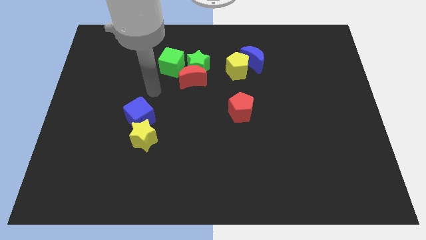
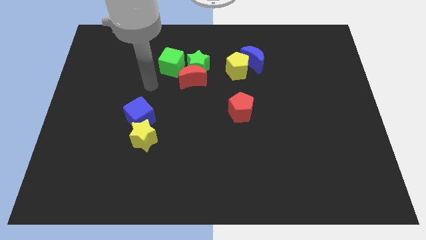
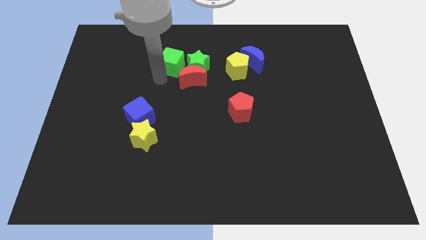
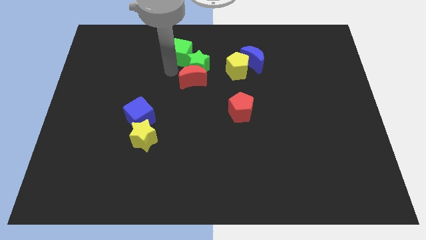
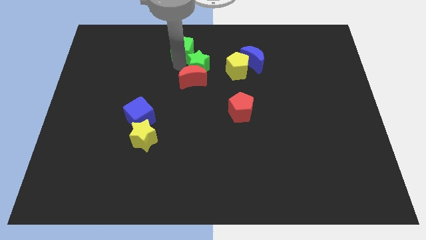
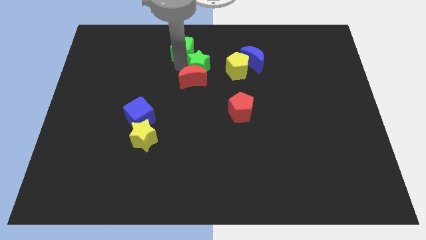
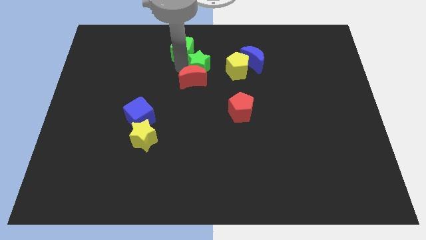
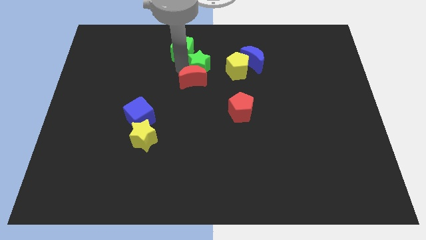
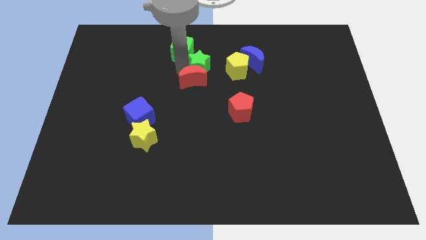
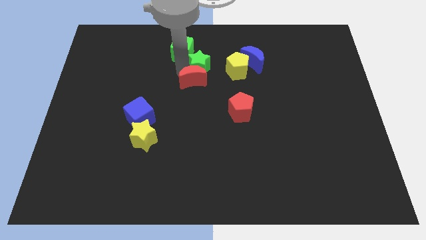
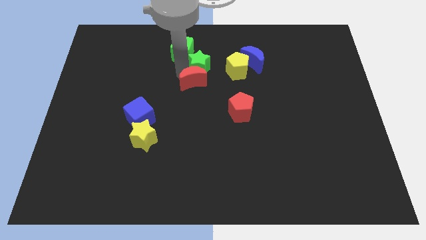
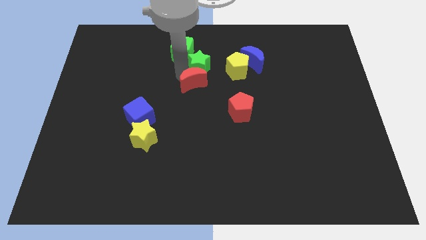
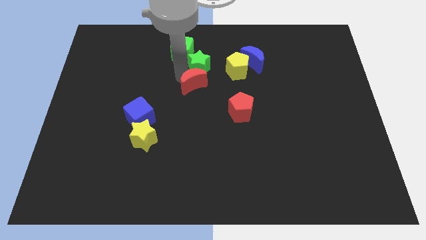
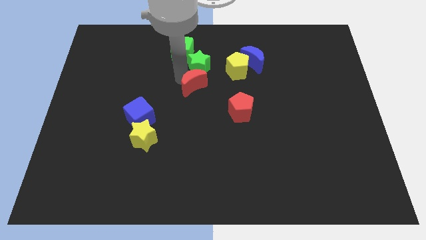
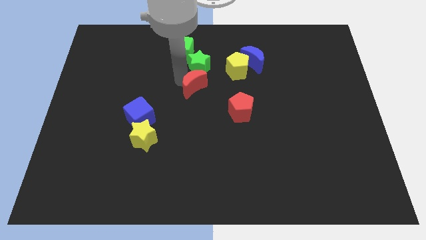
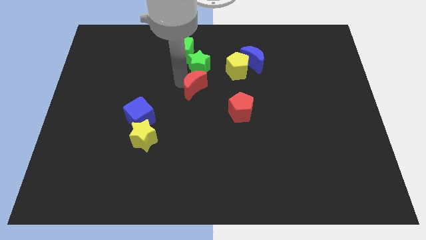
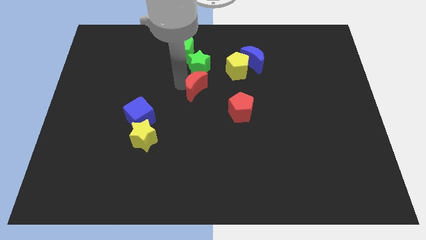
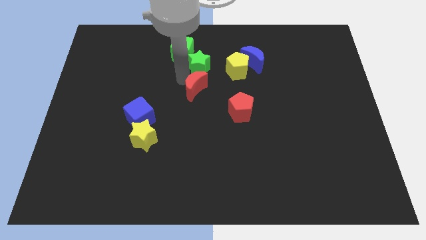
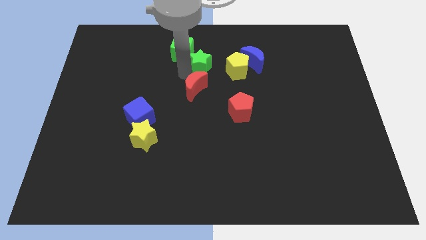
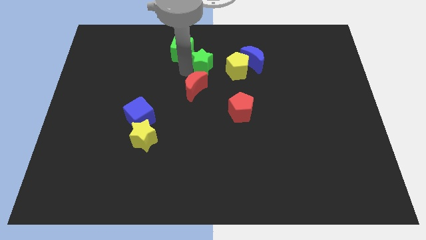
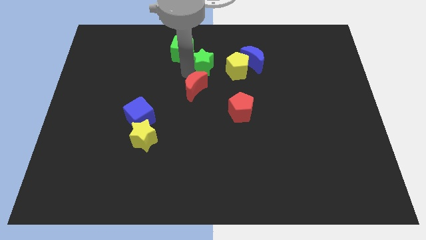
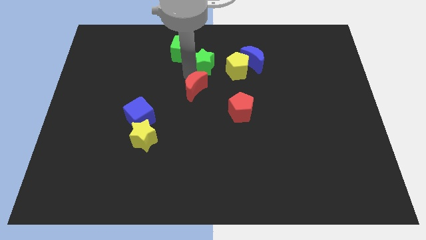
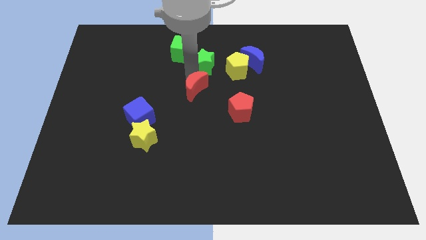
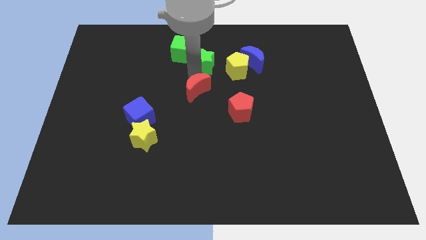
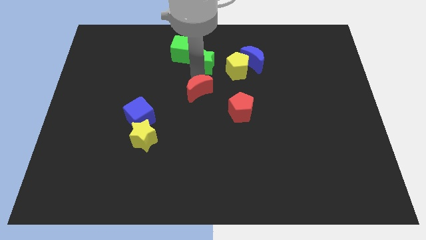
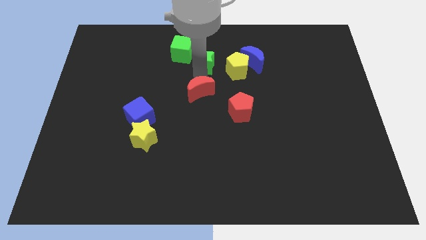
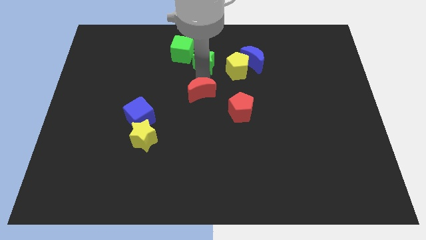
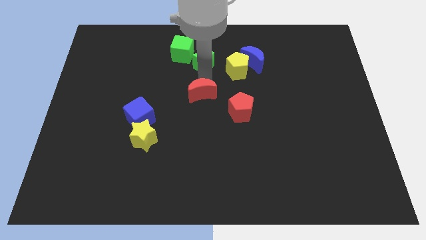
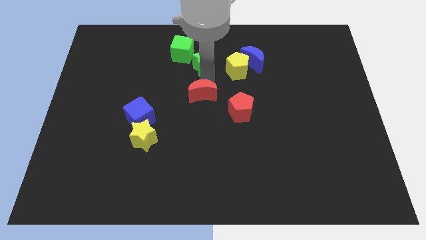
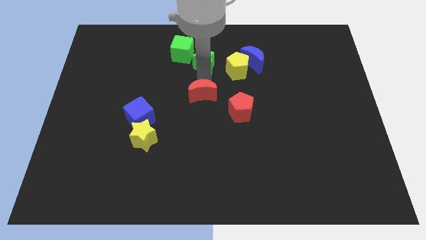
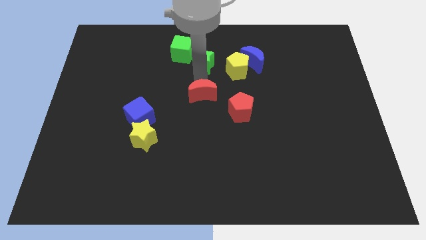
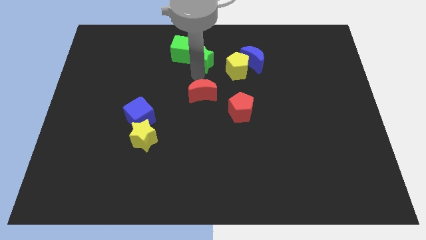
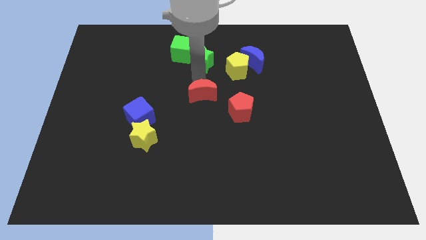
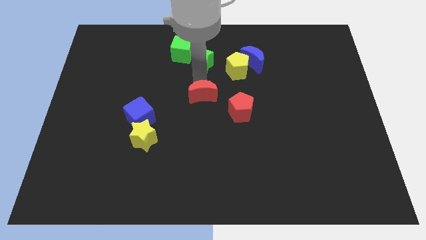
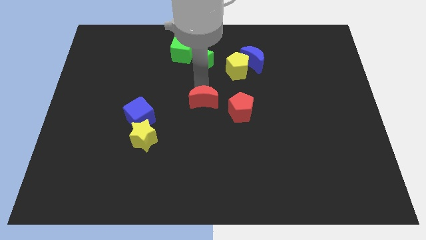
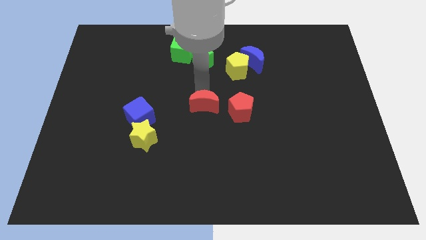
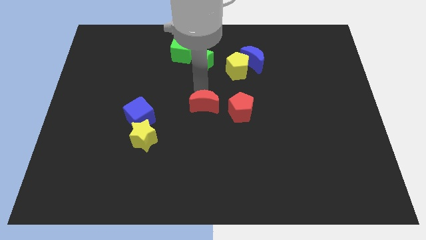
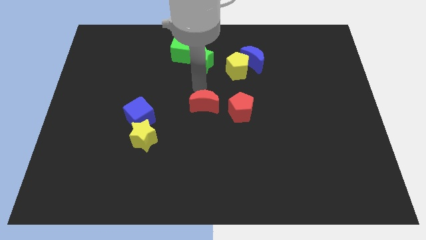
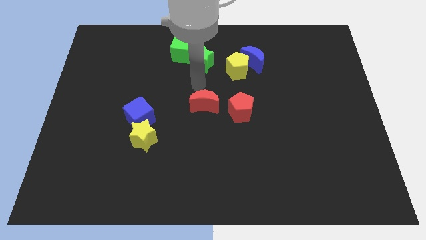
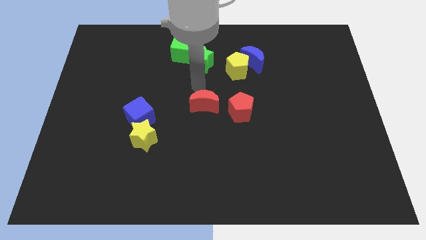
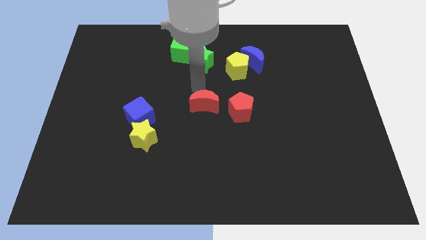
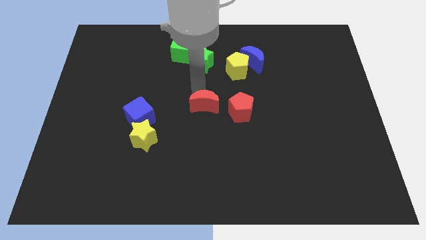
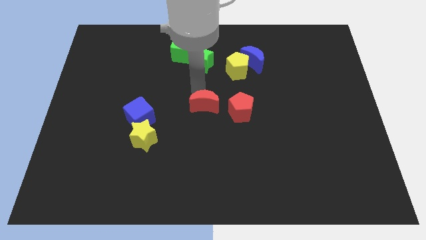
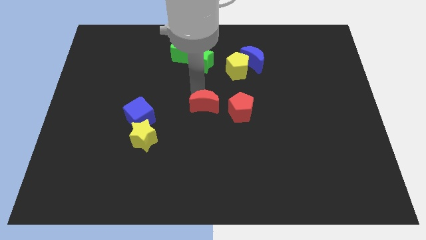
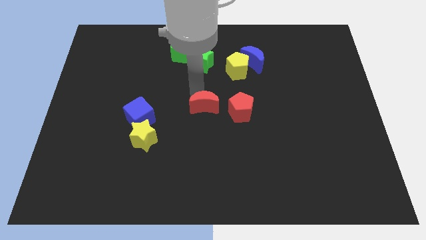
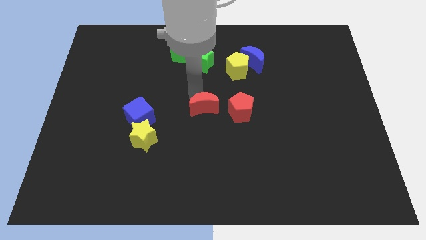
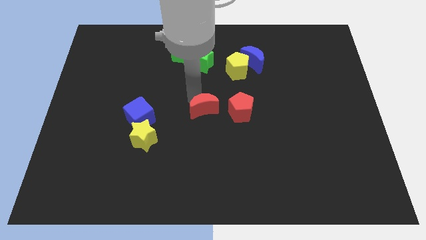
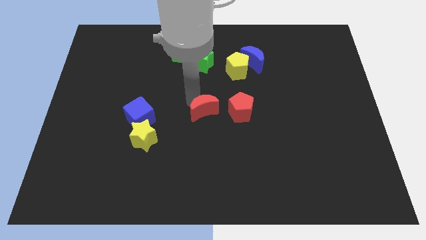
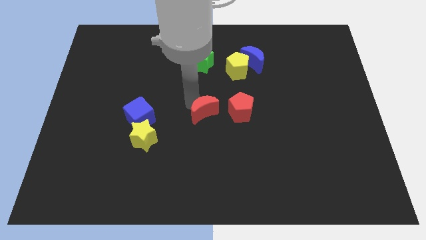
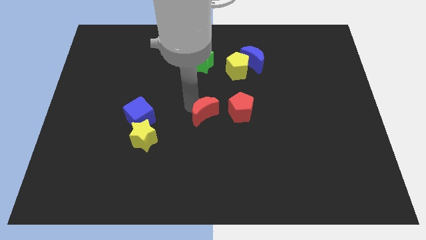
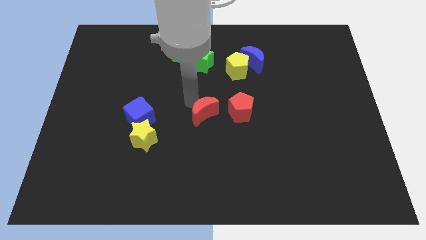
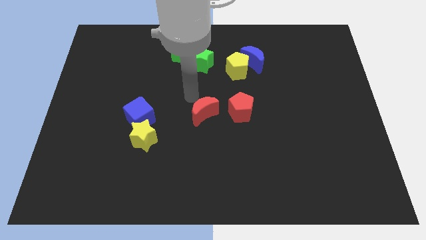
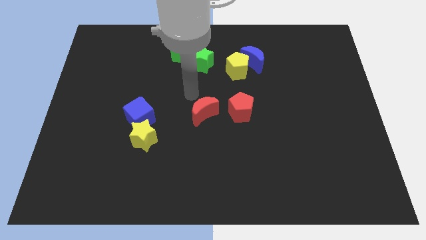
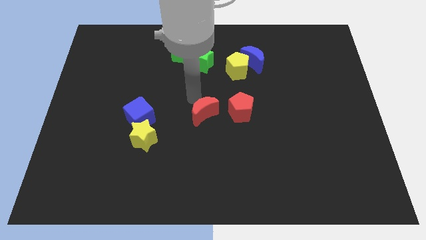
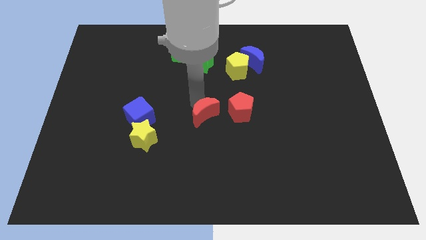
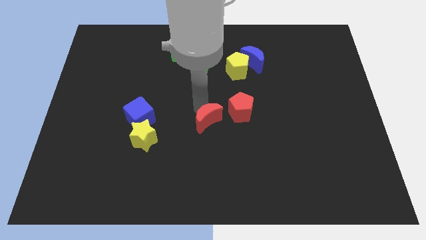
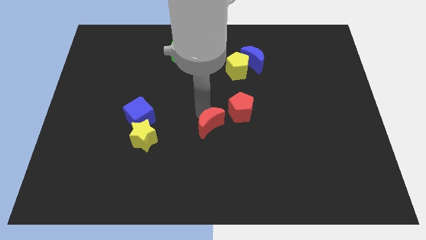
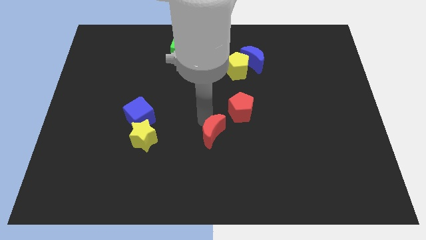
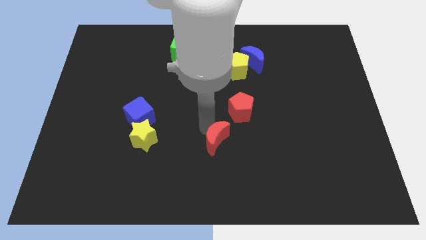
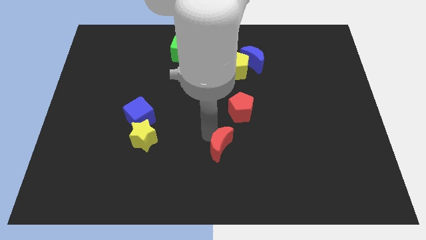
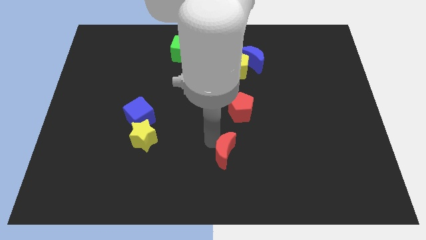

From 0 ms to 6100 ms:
move the red moon to the bottom side of the red pentagon
